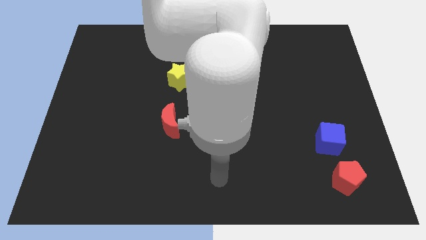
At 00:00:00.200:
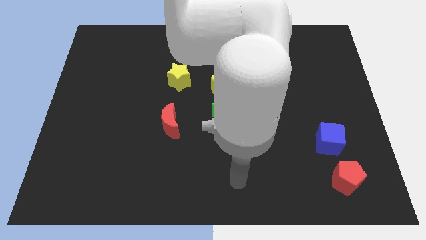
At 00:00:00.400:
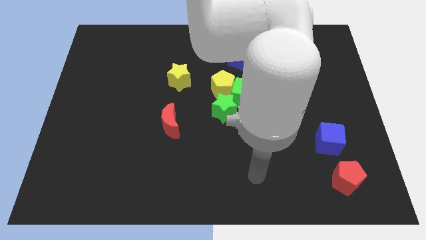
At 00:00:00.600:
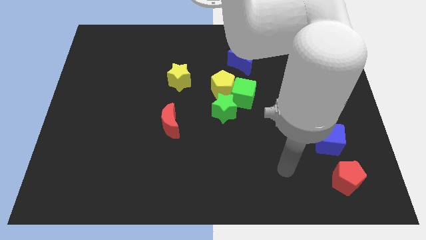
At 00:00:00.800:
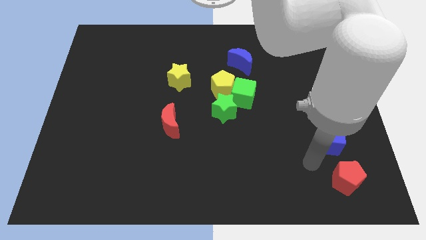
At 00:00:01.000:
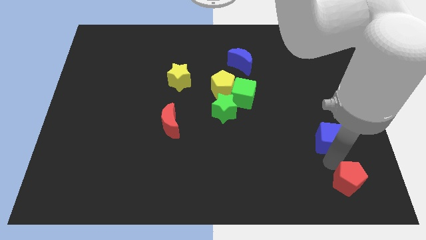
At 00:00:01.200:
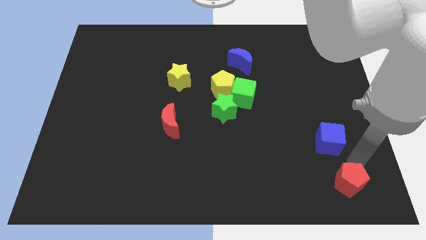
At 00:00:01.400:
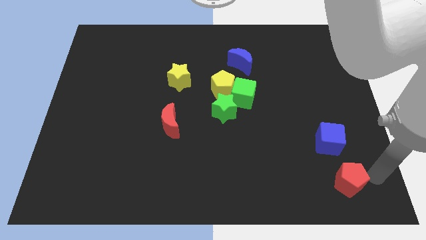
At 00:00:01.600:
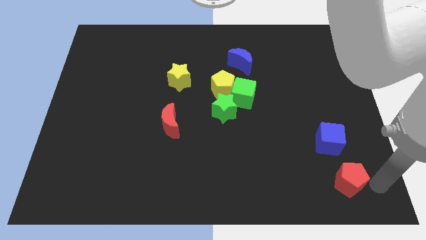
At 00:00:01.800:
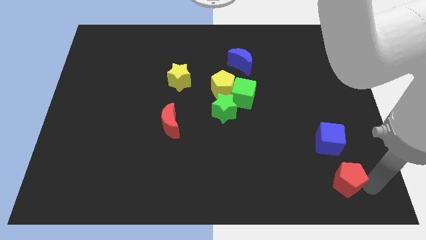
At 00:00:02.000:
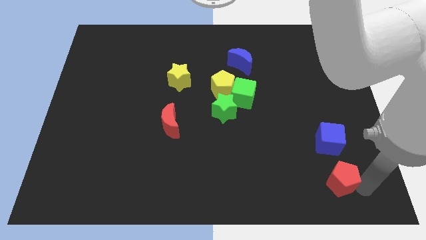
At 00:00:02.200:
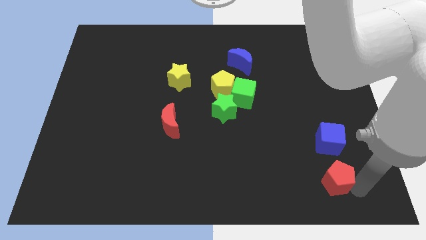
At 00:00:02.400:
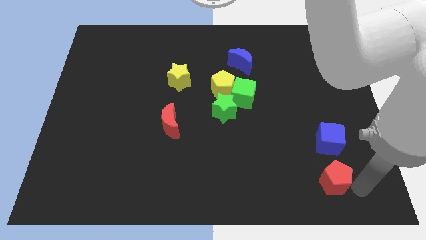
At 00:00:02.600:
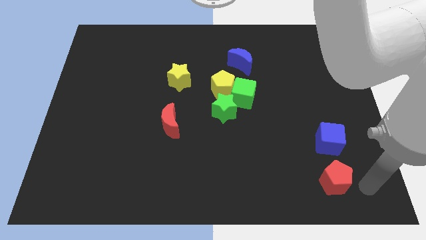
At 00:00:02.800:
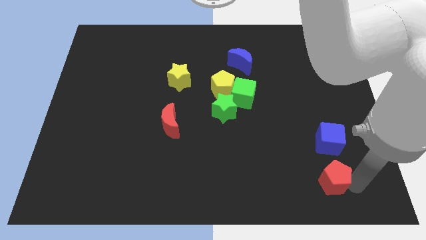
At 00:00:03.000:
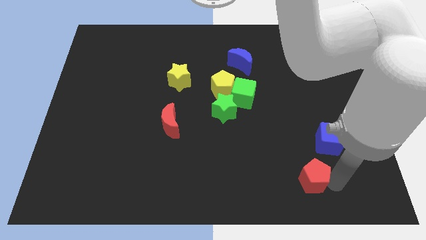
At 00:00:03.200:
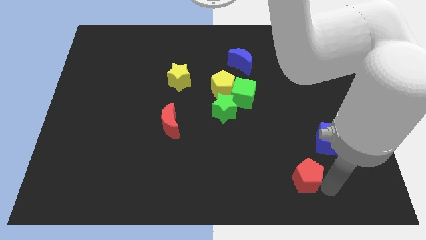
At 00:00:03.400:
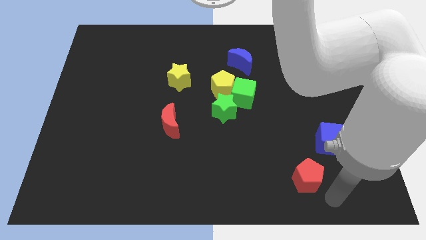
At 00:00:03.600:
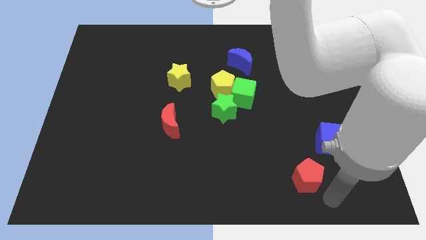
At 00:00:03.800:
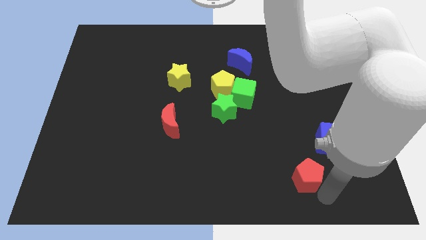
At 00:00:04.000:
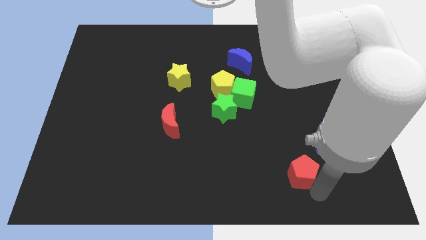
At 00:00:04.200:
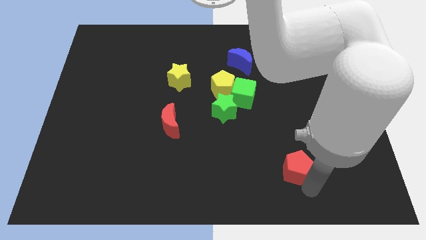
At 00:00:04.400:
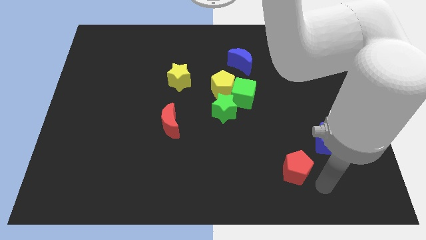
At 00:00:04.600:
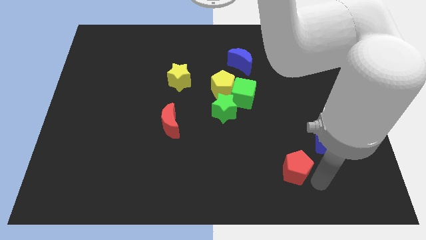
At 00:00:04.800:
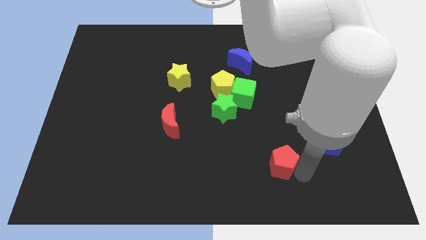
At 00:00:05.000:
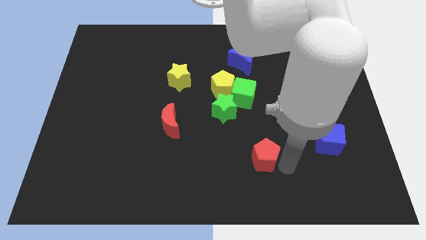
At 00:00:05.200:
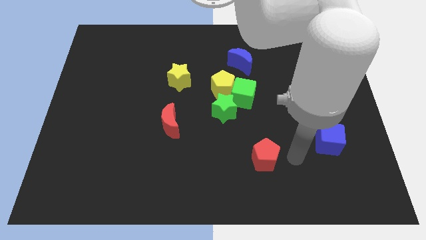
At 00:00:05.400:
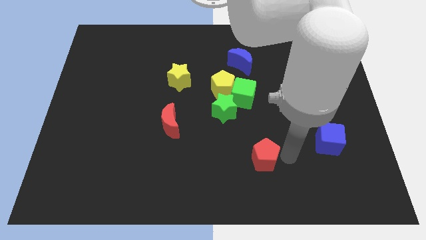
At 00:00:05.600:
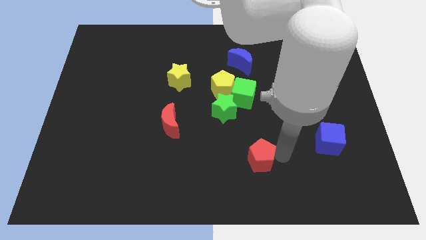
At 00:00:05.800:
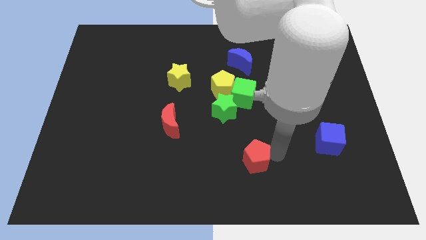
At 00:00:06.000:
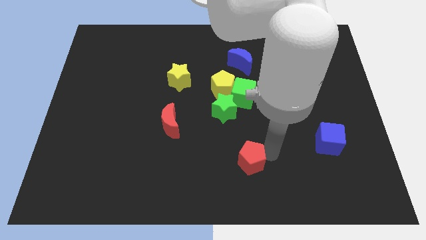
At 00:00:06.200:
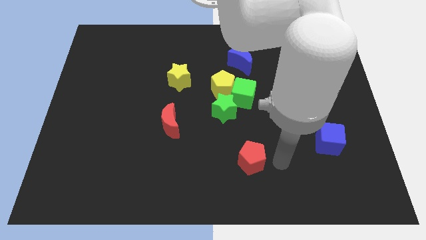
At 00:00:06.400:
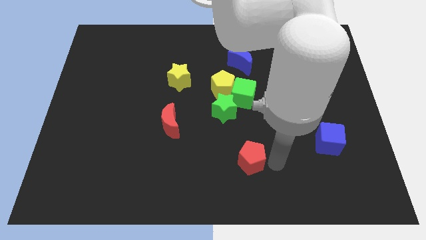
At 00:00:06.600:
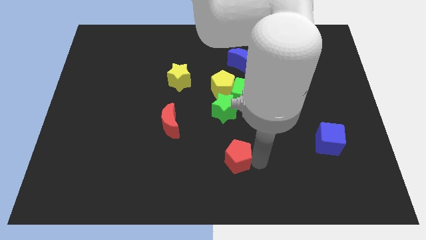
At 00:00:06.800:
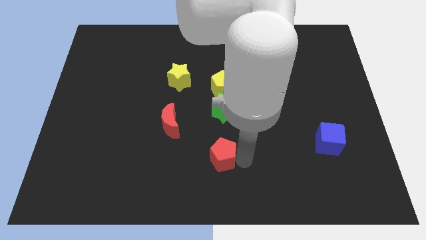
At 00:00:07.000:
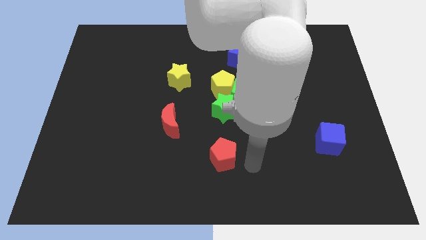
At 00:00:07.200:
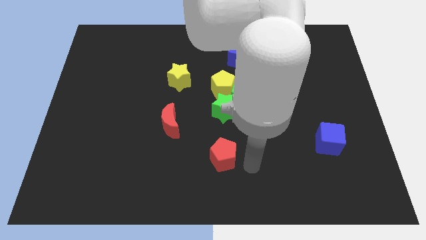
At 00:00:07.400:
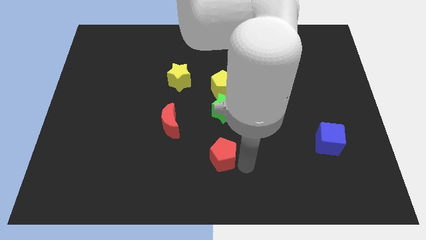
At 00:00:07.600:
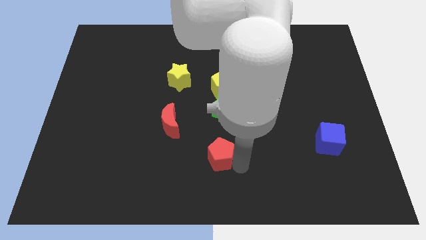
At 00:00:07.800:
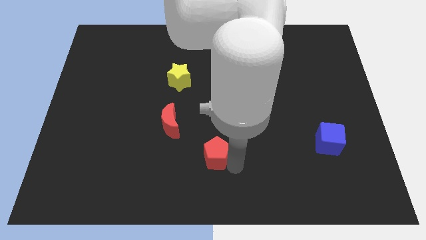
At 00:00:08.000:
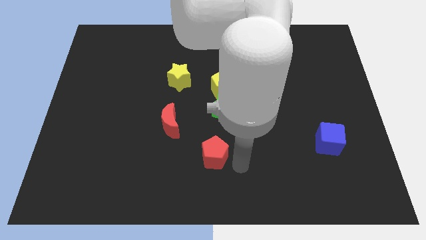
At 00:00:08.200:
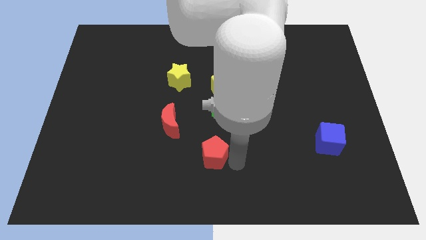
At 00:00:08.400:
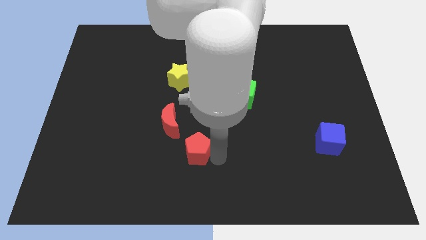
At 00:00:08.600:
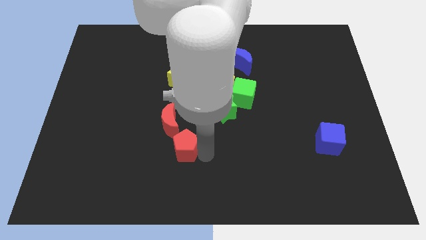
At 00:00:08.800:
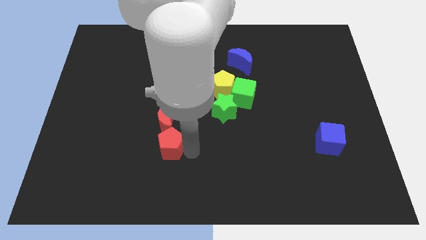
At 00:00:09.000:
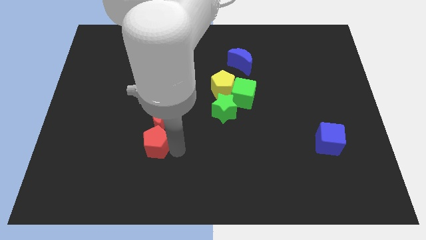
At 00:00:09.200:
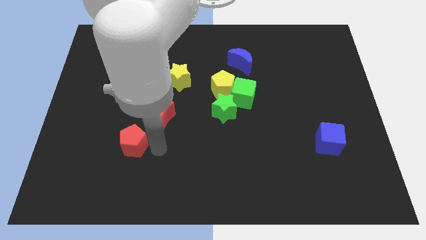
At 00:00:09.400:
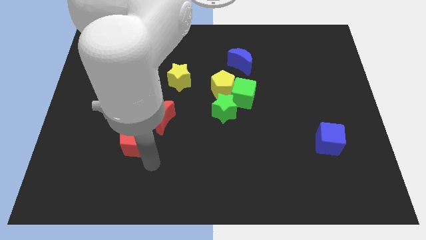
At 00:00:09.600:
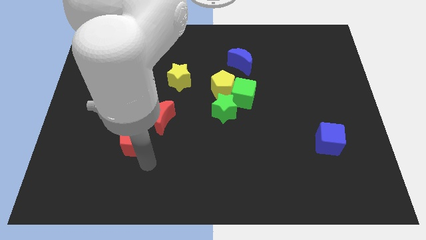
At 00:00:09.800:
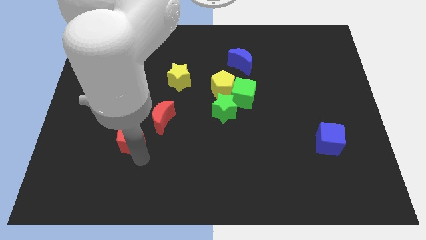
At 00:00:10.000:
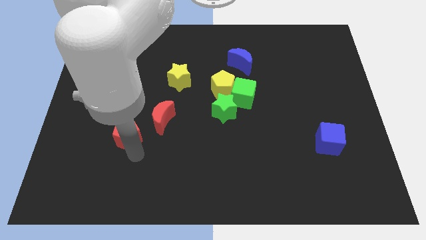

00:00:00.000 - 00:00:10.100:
move the red pentagon just left of the red moon

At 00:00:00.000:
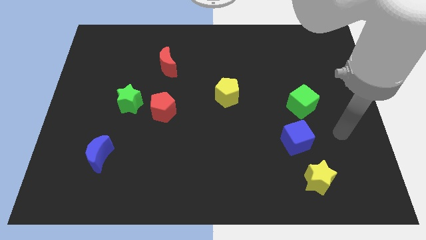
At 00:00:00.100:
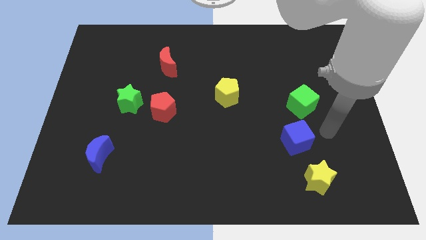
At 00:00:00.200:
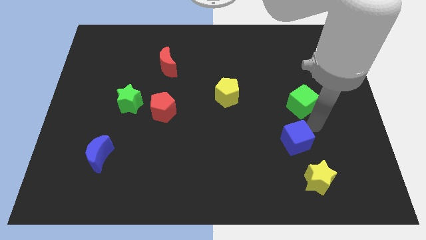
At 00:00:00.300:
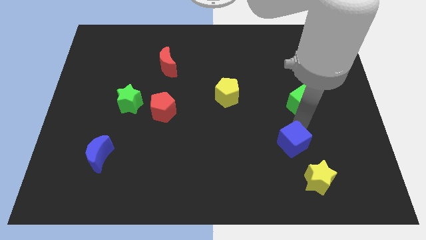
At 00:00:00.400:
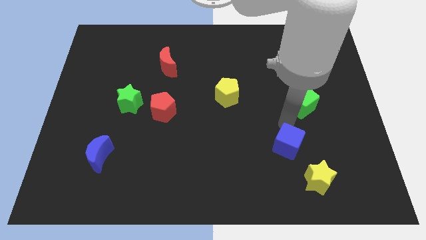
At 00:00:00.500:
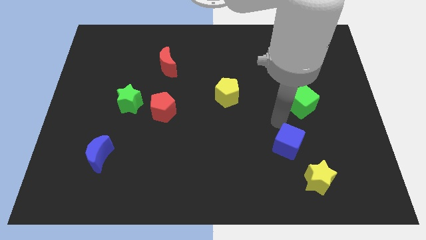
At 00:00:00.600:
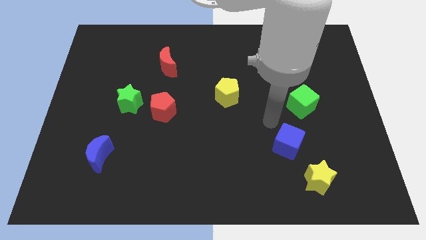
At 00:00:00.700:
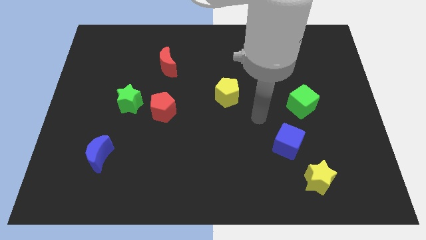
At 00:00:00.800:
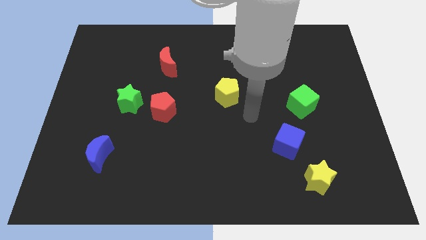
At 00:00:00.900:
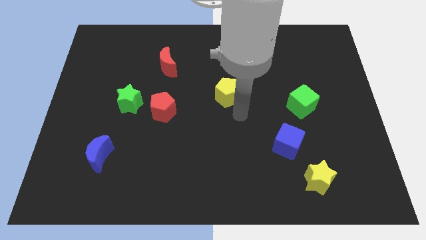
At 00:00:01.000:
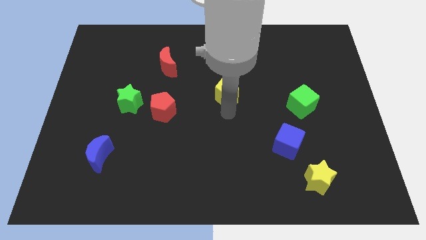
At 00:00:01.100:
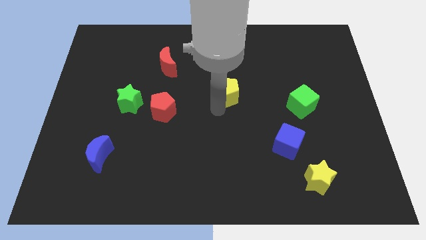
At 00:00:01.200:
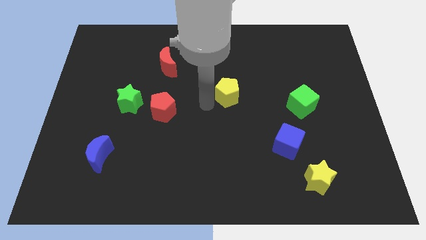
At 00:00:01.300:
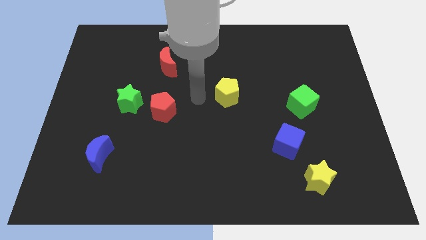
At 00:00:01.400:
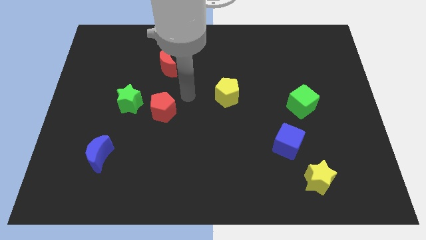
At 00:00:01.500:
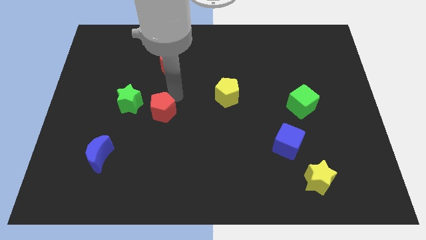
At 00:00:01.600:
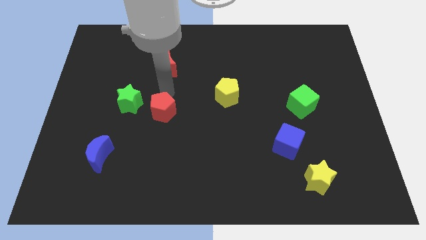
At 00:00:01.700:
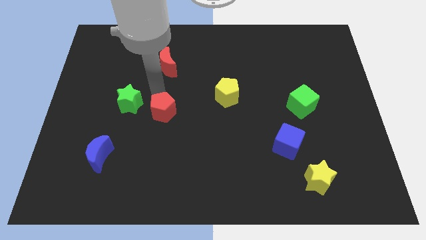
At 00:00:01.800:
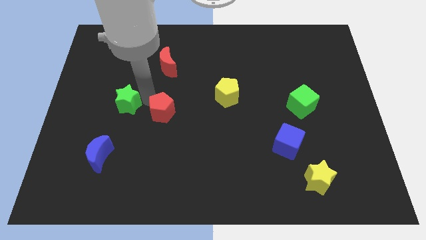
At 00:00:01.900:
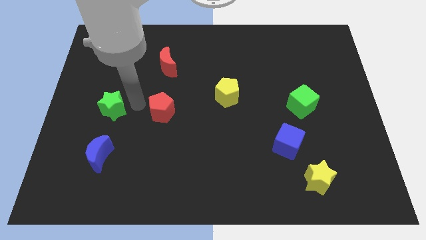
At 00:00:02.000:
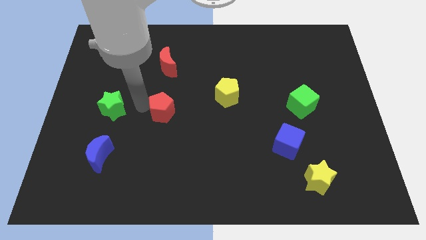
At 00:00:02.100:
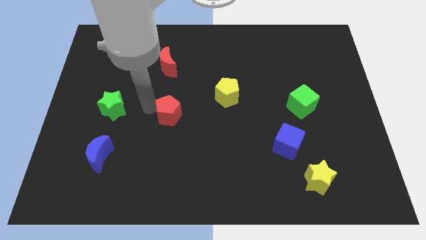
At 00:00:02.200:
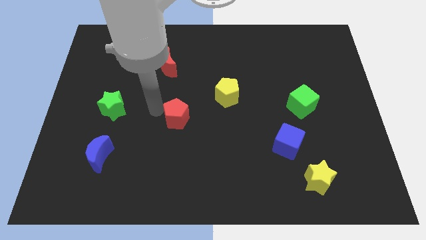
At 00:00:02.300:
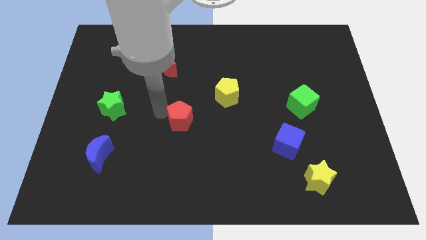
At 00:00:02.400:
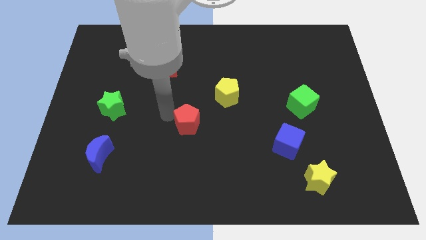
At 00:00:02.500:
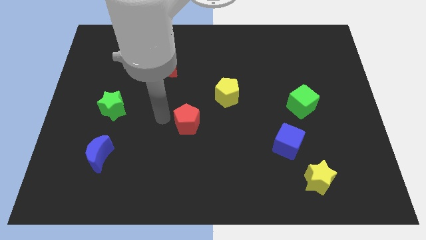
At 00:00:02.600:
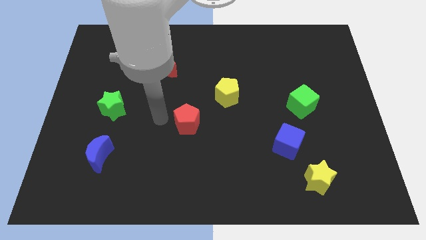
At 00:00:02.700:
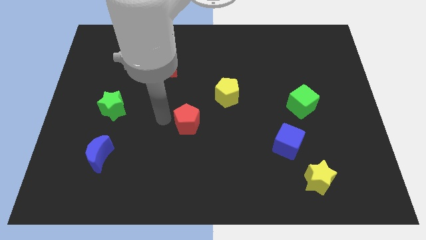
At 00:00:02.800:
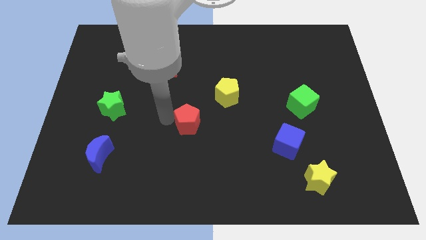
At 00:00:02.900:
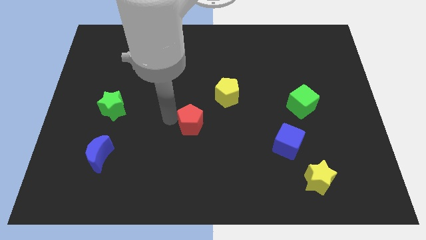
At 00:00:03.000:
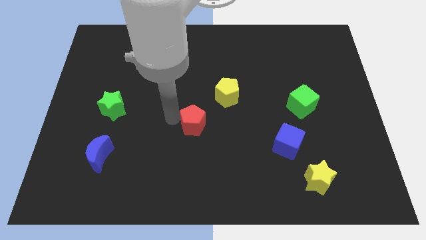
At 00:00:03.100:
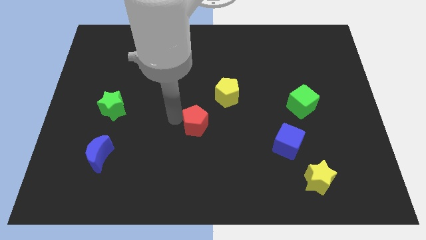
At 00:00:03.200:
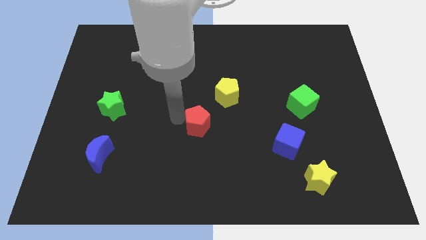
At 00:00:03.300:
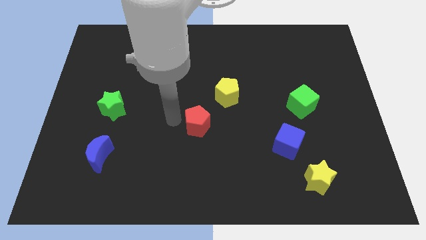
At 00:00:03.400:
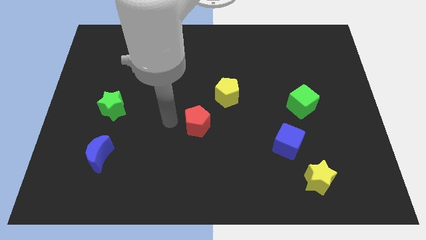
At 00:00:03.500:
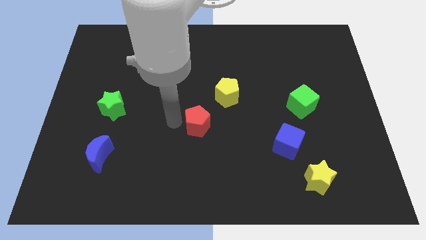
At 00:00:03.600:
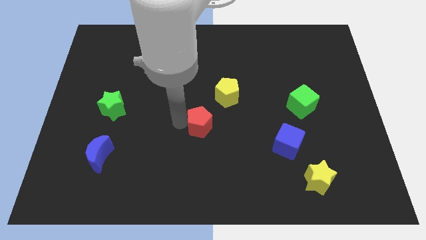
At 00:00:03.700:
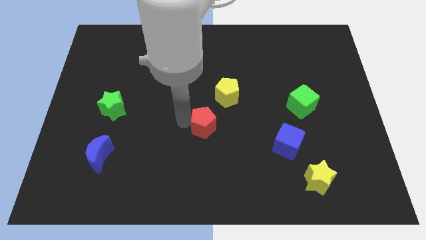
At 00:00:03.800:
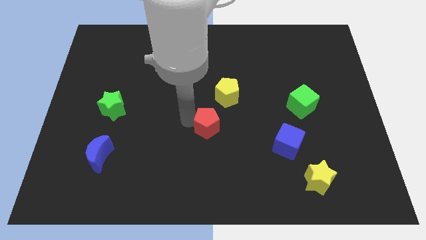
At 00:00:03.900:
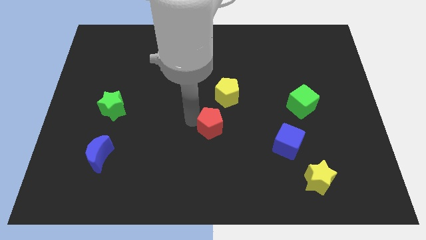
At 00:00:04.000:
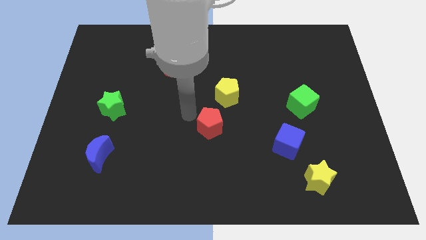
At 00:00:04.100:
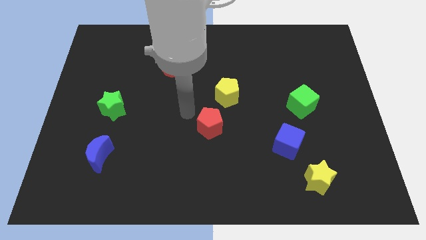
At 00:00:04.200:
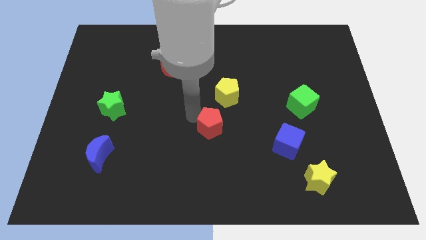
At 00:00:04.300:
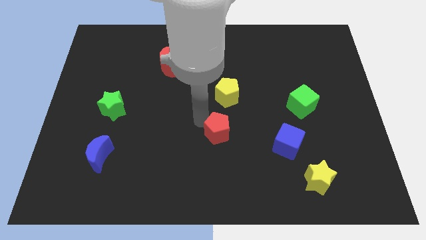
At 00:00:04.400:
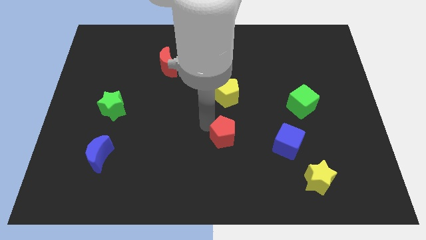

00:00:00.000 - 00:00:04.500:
move the red pentagon left of the blue cube
